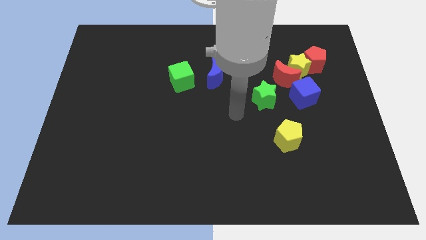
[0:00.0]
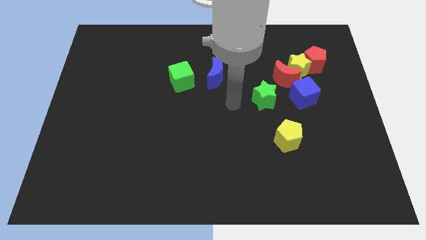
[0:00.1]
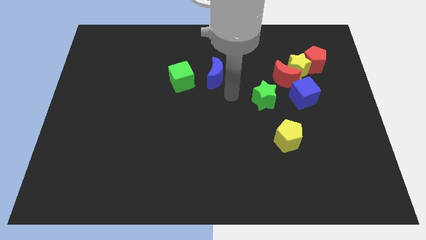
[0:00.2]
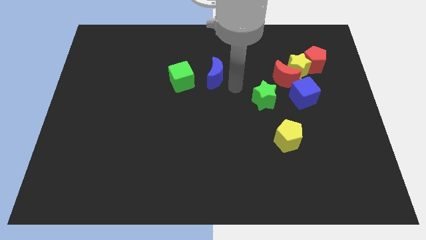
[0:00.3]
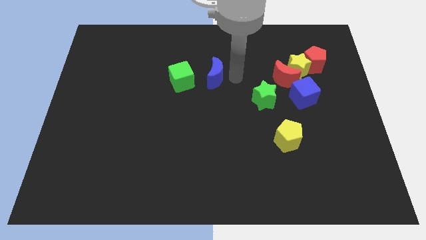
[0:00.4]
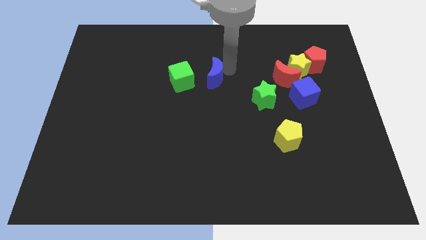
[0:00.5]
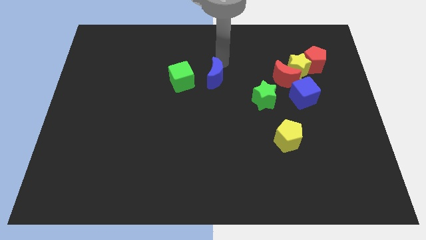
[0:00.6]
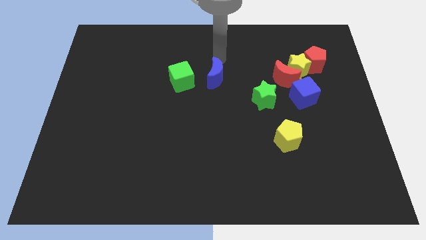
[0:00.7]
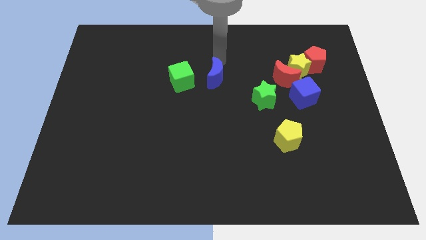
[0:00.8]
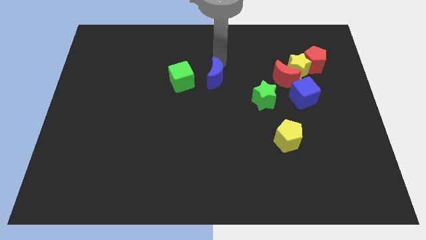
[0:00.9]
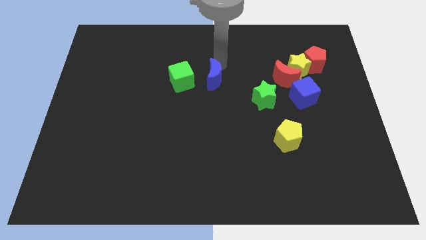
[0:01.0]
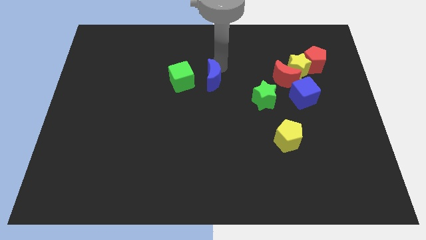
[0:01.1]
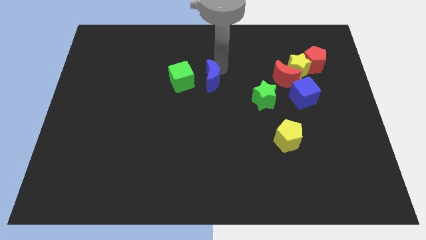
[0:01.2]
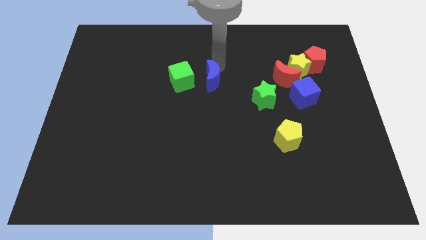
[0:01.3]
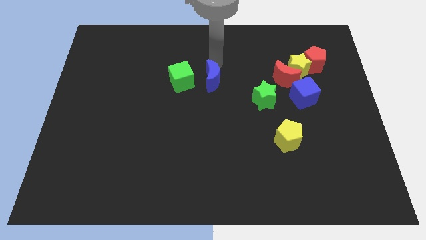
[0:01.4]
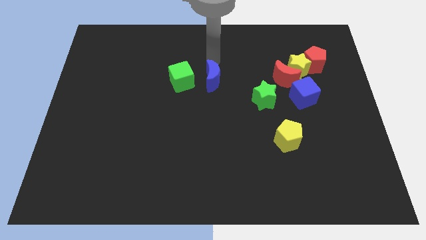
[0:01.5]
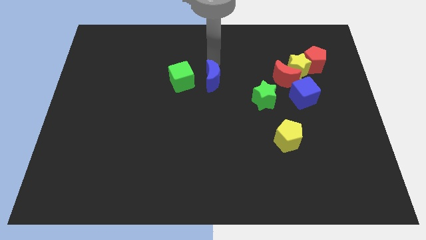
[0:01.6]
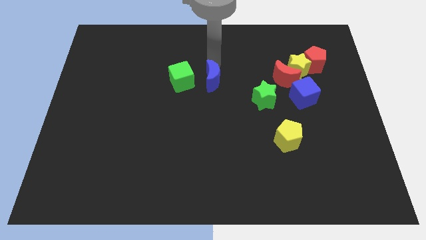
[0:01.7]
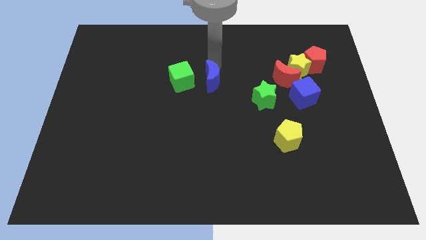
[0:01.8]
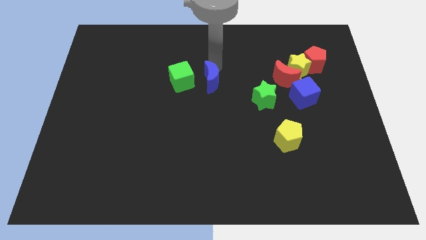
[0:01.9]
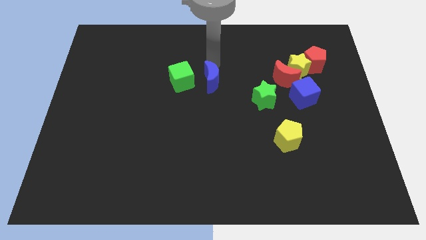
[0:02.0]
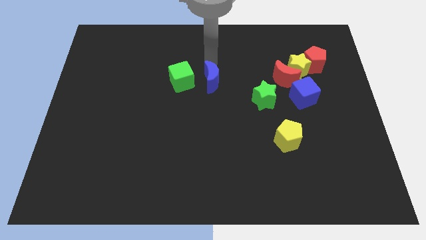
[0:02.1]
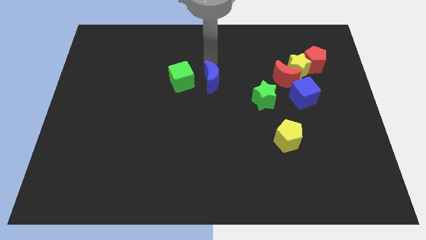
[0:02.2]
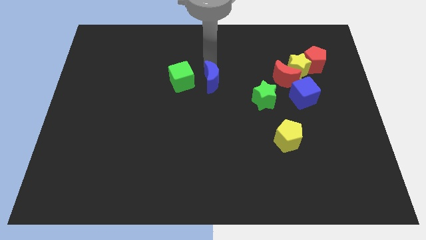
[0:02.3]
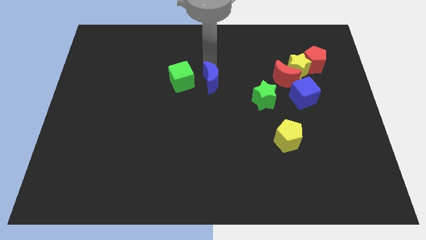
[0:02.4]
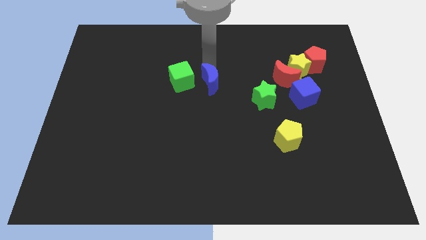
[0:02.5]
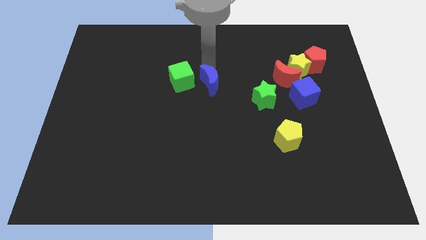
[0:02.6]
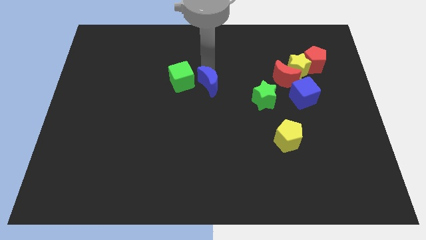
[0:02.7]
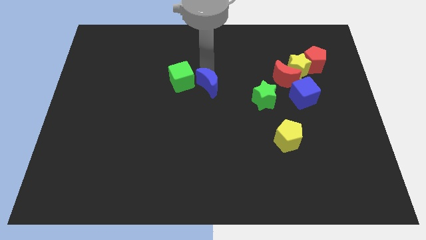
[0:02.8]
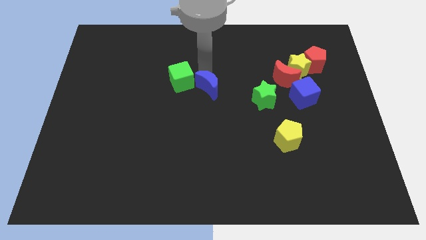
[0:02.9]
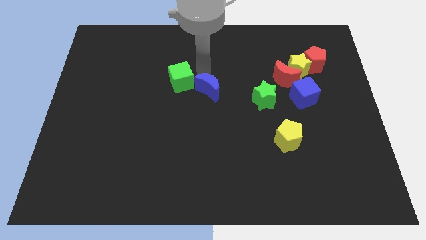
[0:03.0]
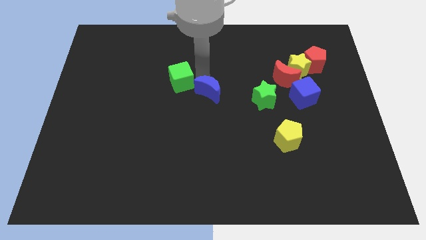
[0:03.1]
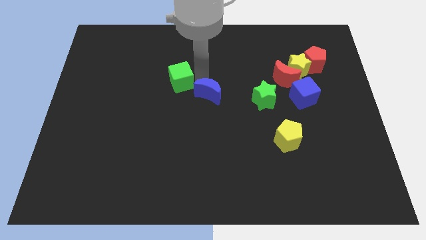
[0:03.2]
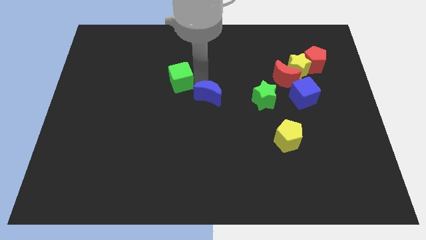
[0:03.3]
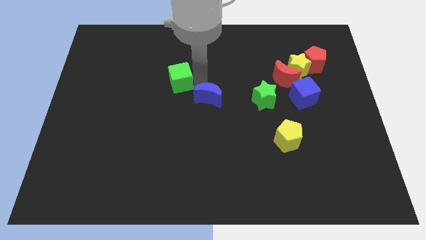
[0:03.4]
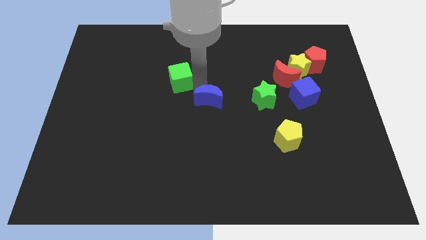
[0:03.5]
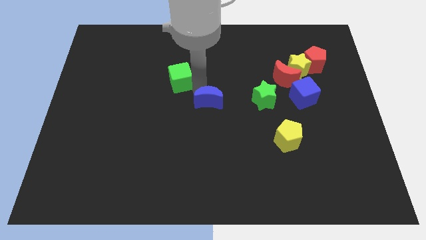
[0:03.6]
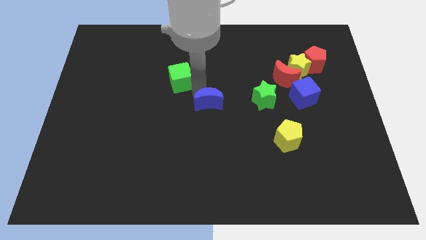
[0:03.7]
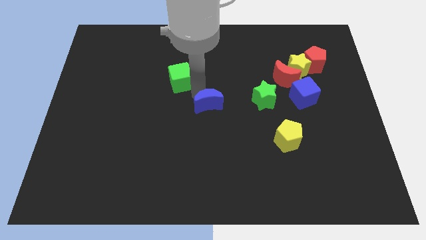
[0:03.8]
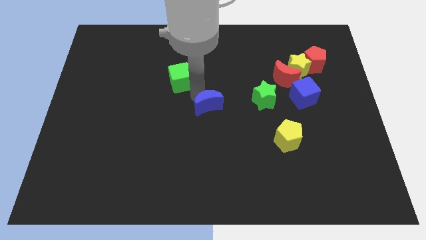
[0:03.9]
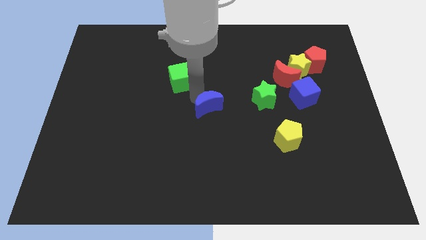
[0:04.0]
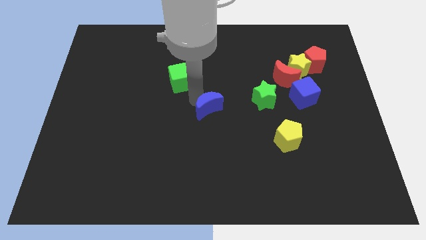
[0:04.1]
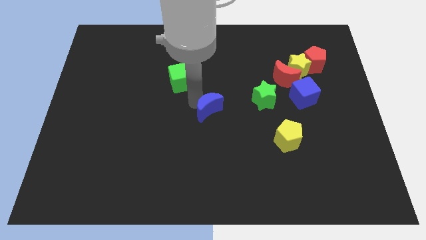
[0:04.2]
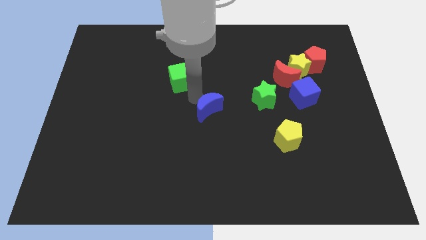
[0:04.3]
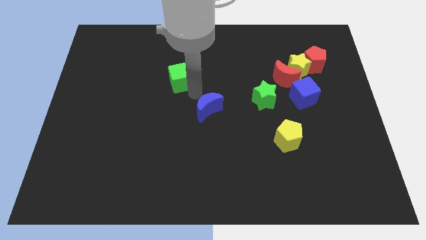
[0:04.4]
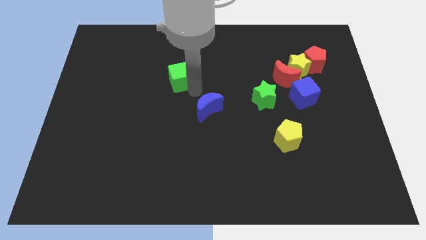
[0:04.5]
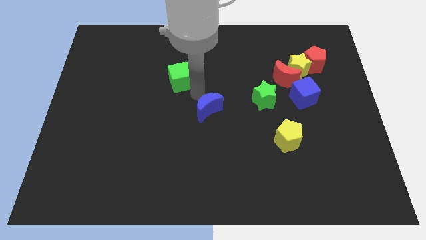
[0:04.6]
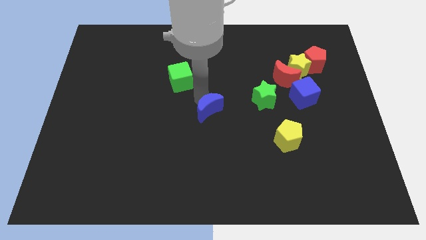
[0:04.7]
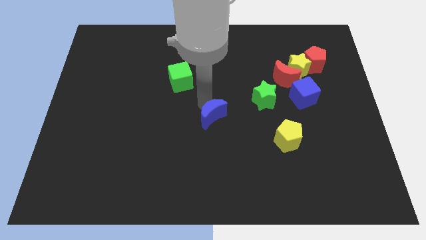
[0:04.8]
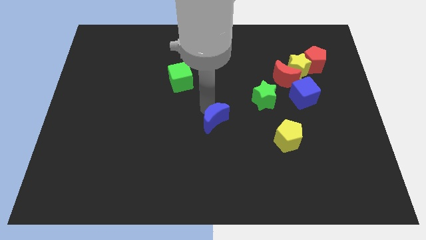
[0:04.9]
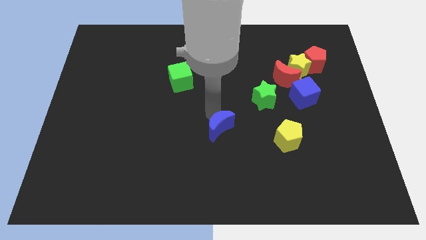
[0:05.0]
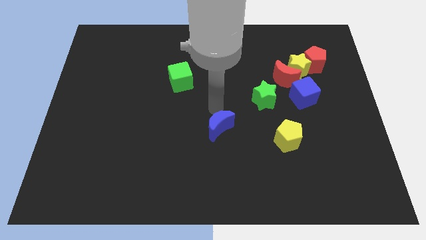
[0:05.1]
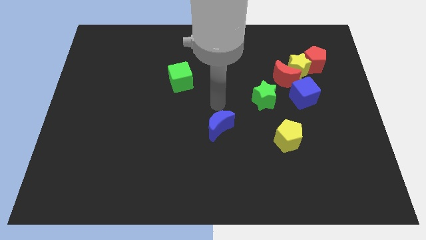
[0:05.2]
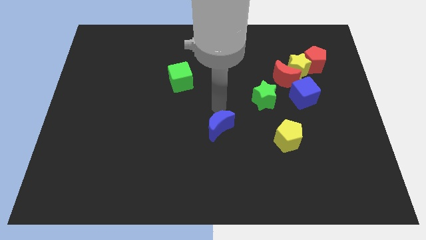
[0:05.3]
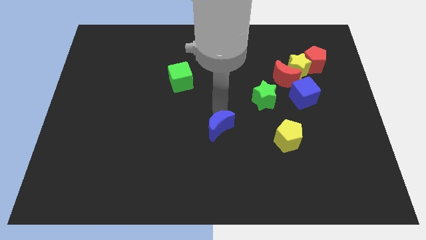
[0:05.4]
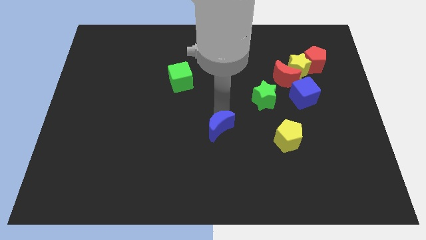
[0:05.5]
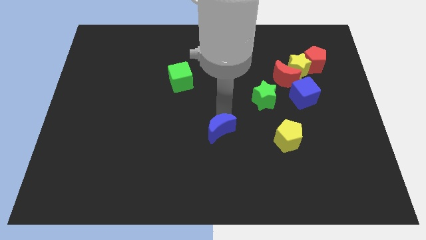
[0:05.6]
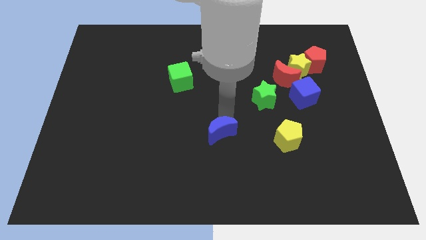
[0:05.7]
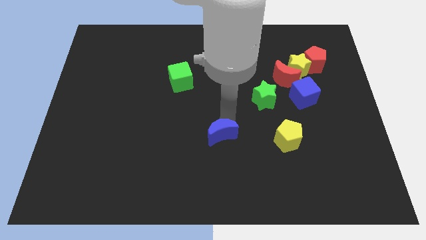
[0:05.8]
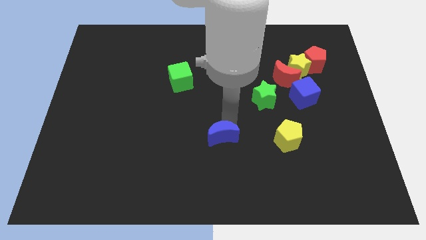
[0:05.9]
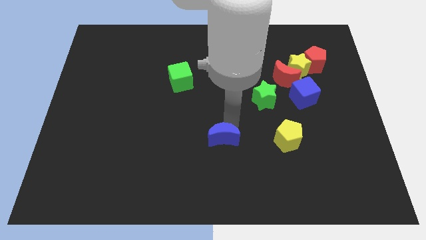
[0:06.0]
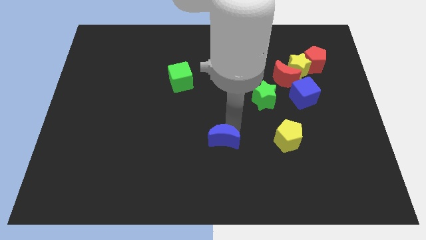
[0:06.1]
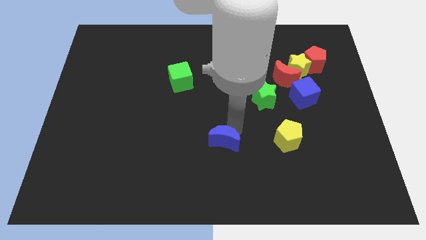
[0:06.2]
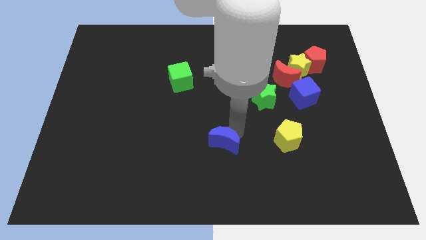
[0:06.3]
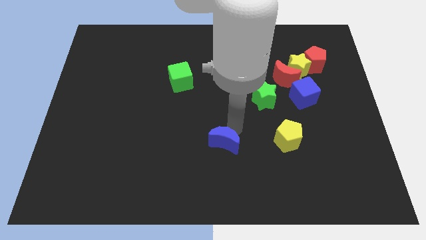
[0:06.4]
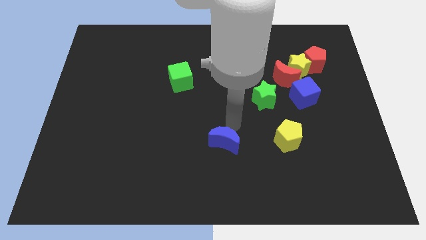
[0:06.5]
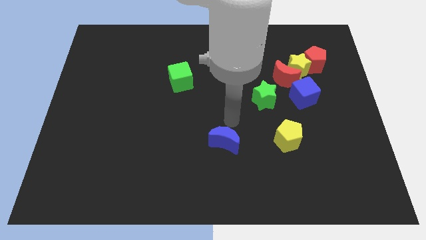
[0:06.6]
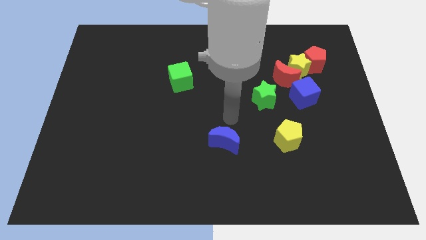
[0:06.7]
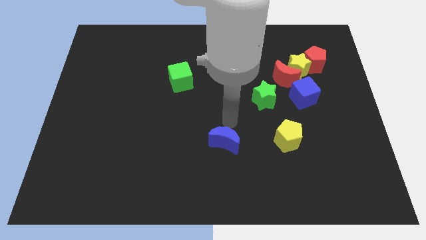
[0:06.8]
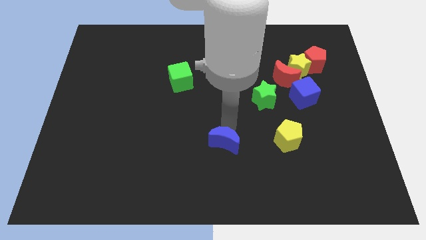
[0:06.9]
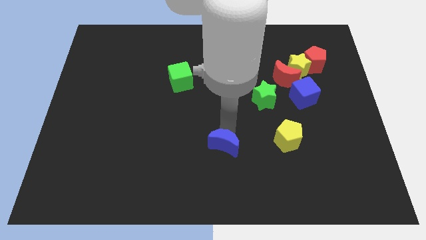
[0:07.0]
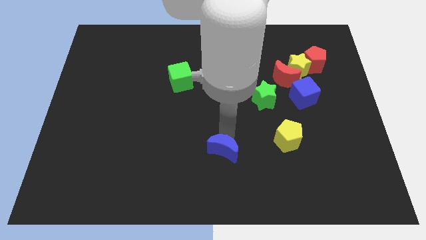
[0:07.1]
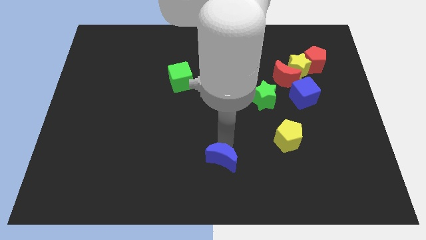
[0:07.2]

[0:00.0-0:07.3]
push the blue moon to the bottom side
